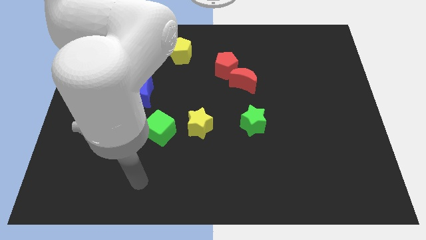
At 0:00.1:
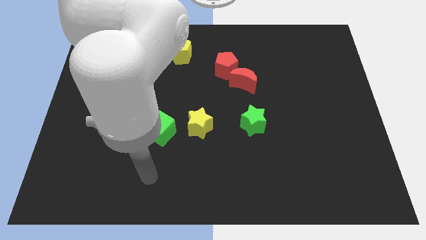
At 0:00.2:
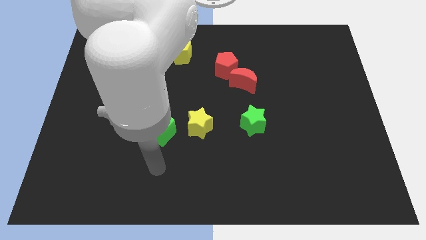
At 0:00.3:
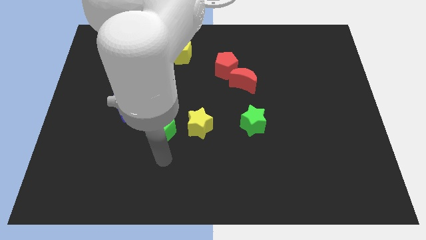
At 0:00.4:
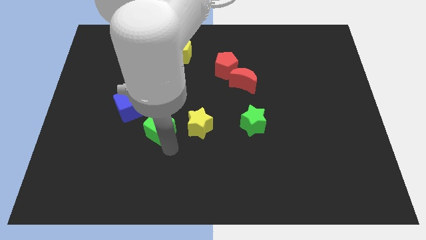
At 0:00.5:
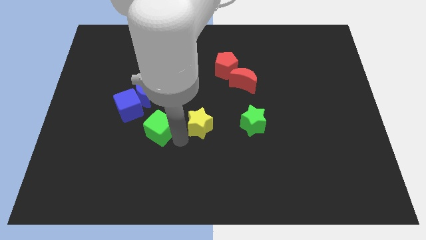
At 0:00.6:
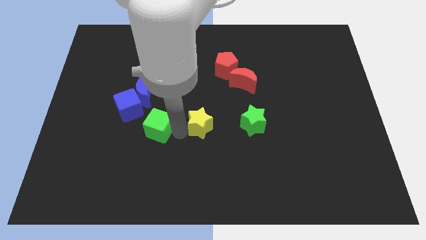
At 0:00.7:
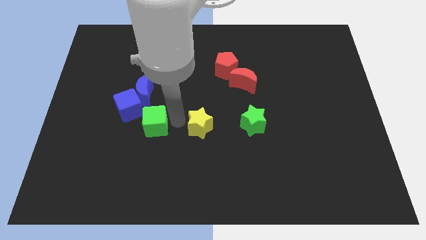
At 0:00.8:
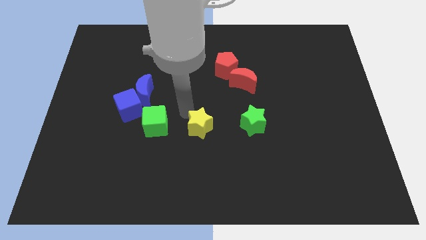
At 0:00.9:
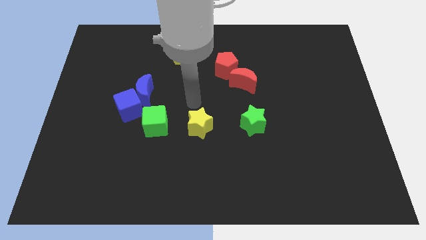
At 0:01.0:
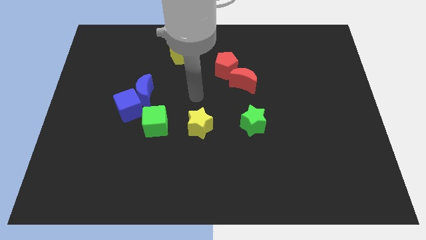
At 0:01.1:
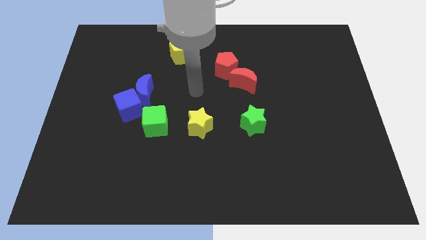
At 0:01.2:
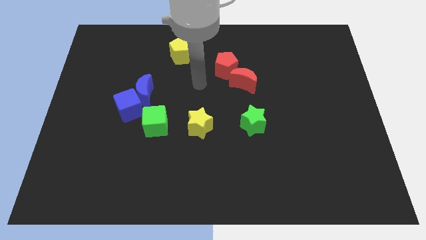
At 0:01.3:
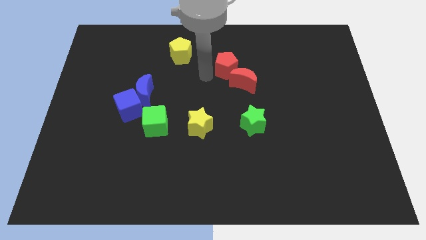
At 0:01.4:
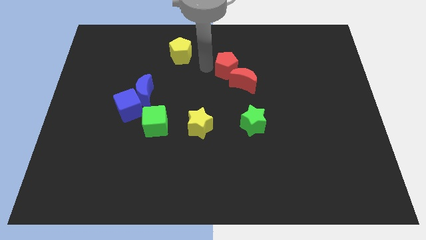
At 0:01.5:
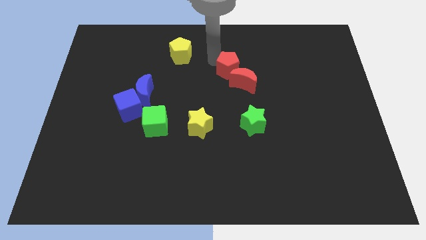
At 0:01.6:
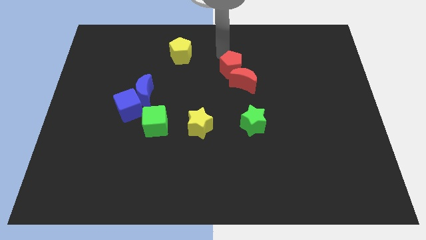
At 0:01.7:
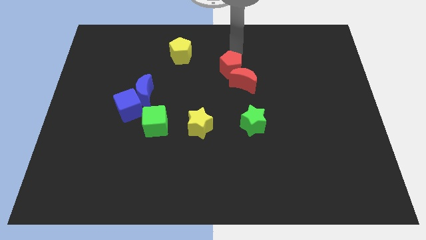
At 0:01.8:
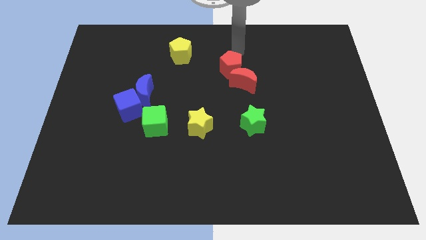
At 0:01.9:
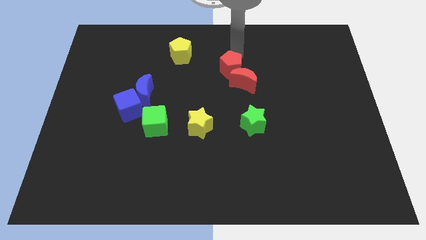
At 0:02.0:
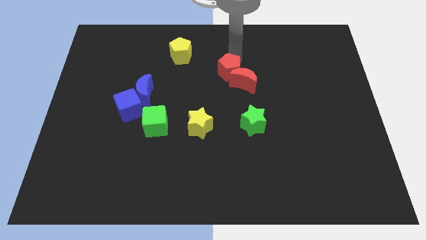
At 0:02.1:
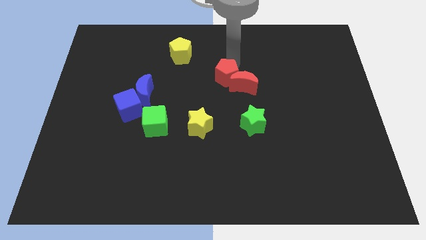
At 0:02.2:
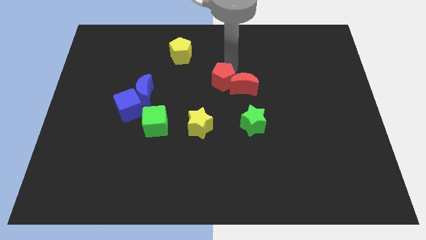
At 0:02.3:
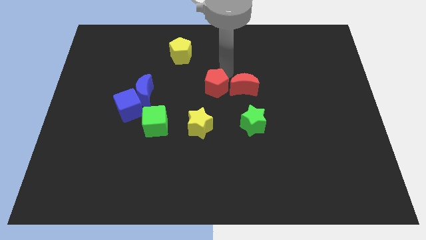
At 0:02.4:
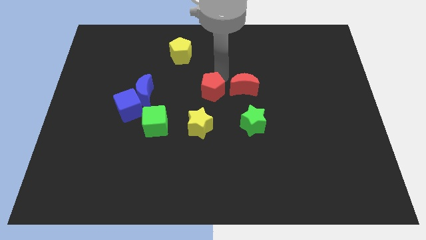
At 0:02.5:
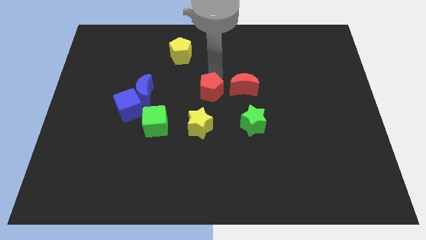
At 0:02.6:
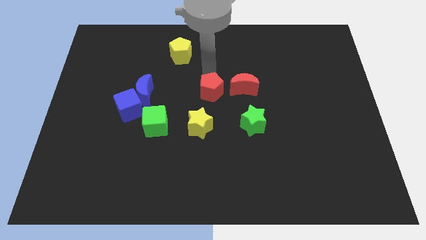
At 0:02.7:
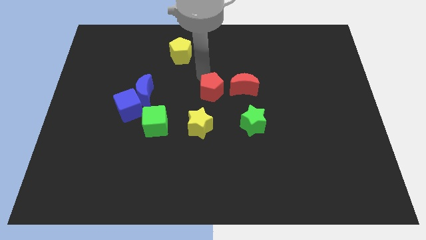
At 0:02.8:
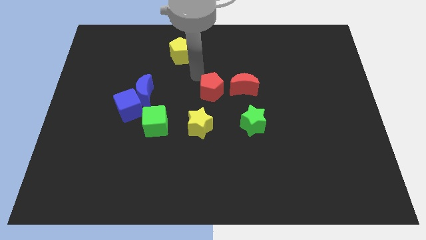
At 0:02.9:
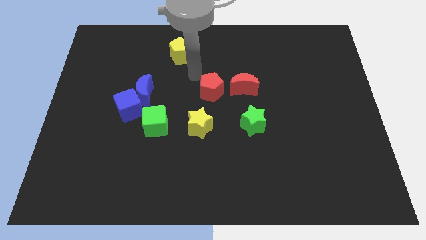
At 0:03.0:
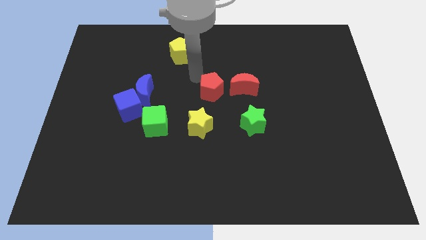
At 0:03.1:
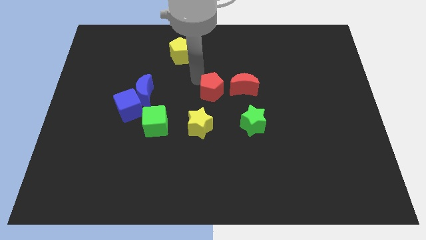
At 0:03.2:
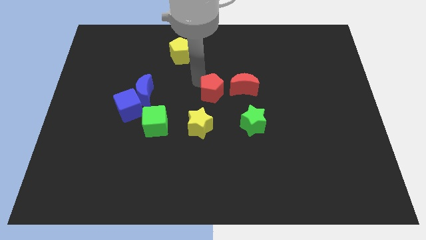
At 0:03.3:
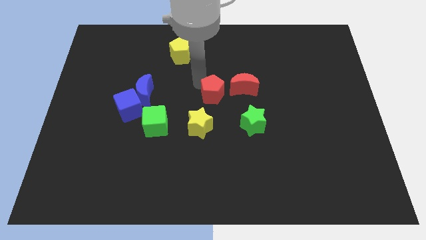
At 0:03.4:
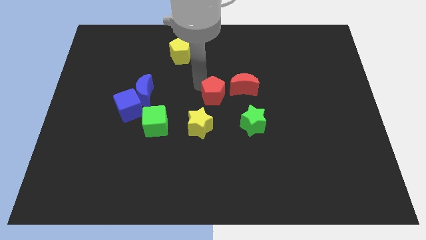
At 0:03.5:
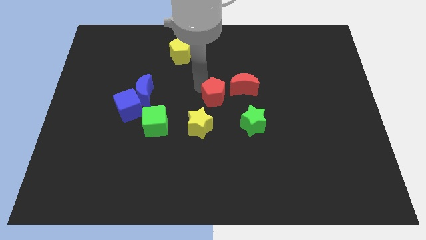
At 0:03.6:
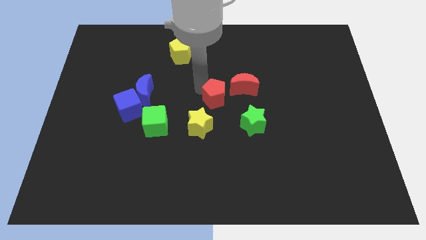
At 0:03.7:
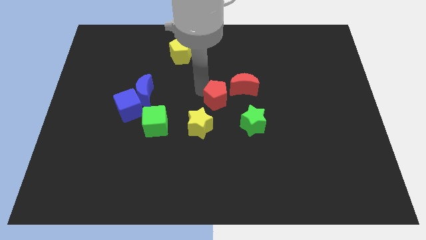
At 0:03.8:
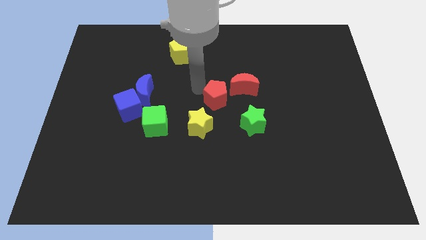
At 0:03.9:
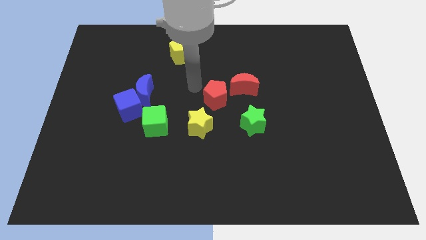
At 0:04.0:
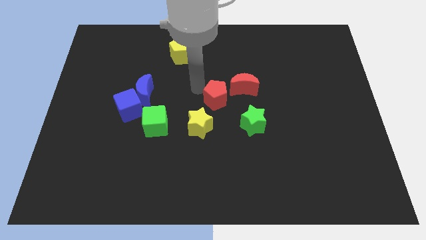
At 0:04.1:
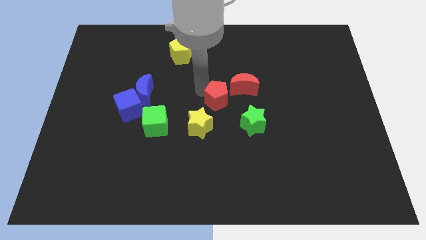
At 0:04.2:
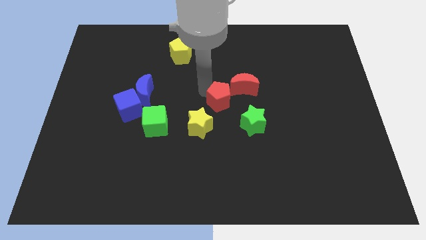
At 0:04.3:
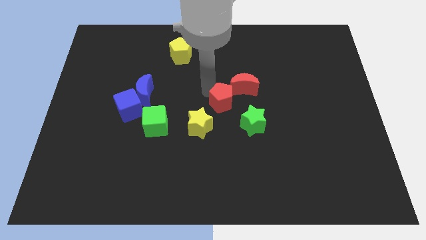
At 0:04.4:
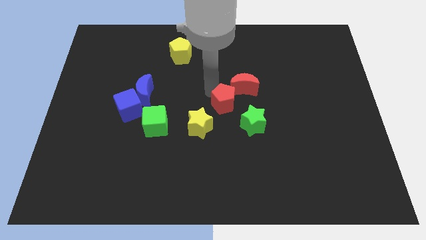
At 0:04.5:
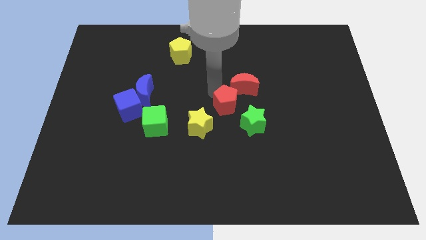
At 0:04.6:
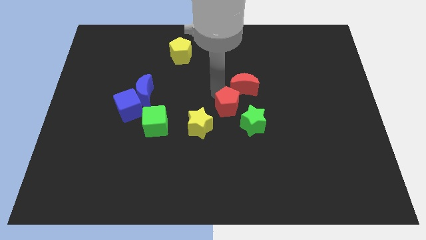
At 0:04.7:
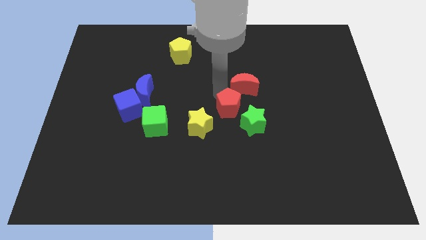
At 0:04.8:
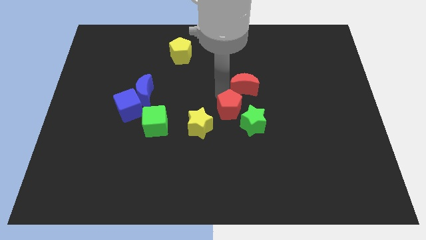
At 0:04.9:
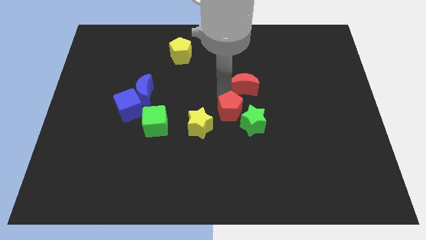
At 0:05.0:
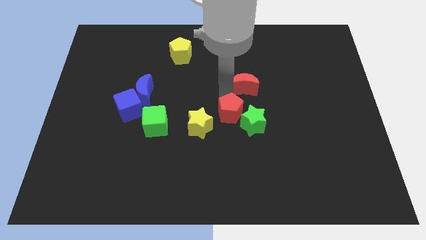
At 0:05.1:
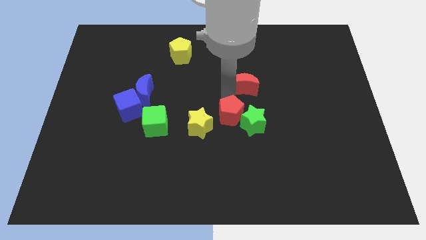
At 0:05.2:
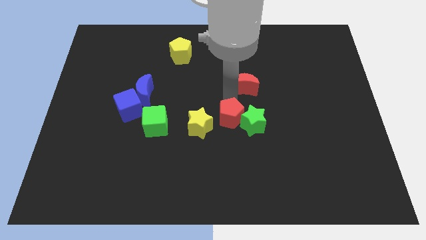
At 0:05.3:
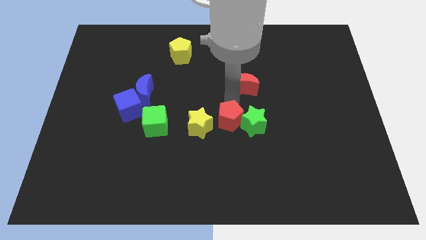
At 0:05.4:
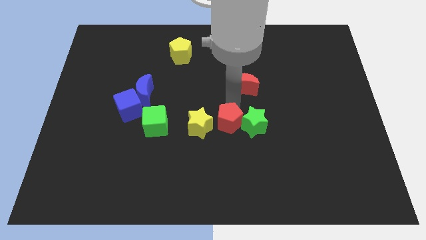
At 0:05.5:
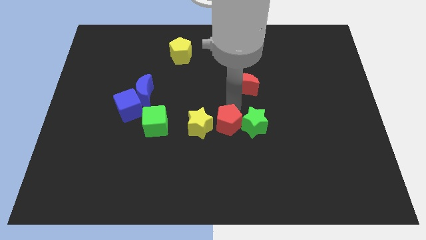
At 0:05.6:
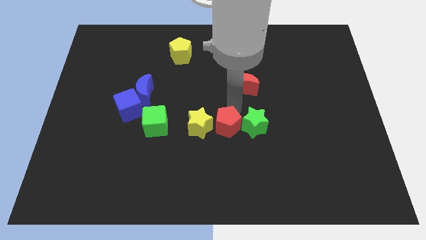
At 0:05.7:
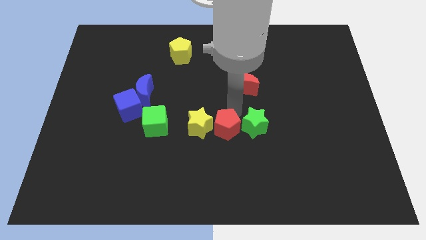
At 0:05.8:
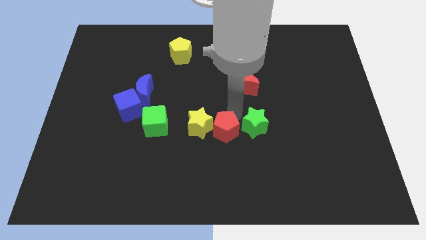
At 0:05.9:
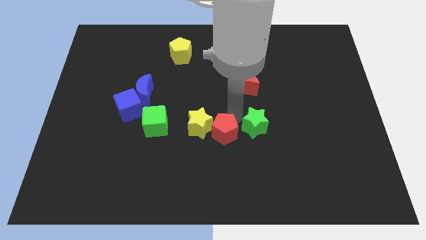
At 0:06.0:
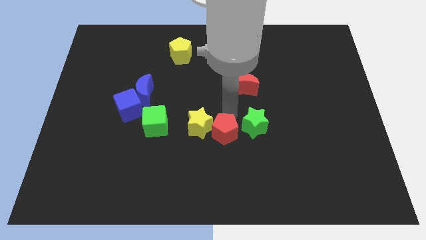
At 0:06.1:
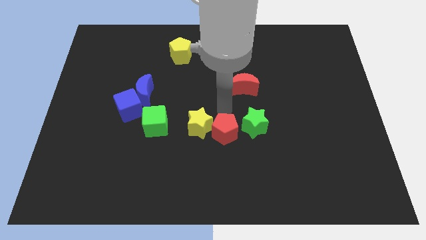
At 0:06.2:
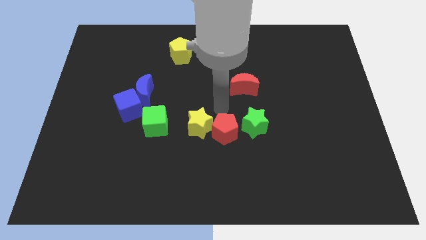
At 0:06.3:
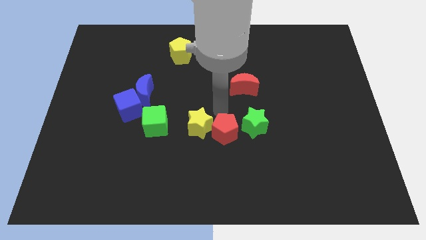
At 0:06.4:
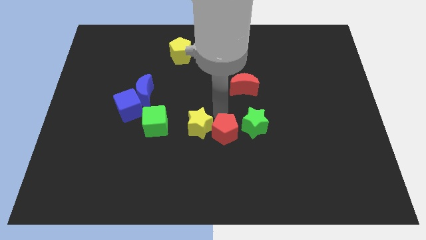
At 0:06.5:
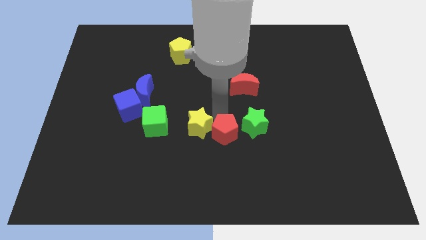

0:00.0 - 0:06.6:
move the red pentagon down

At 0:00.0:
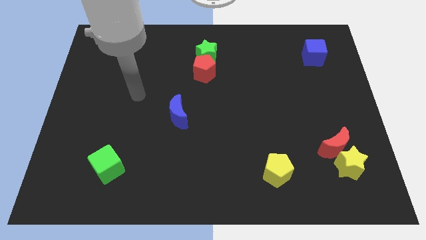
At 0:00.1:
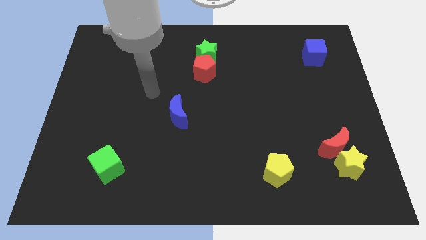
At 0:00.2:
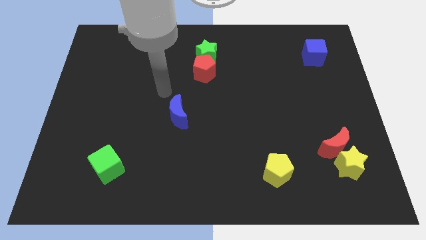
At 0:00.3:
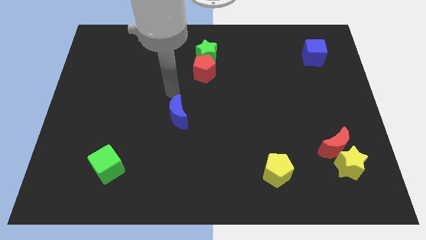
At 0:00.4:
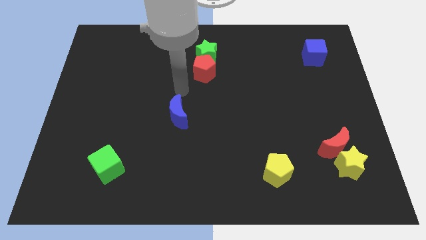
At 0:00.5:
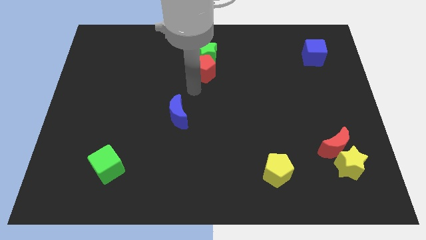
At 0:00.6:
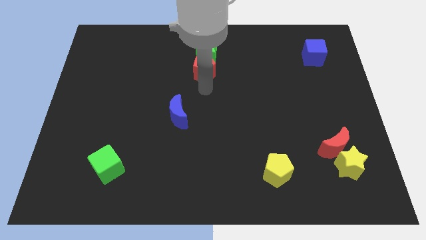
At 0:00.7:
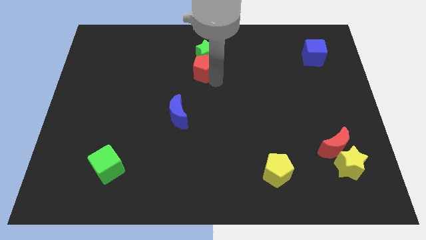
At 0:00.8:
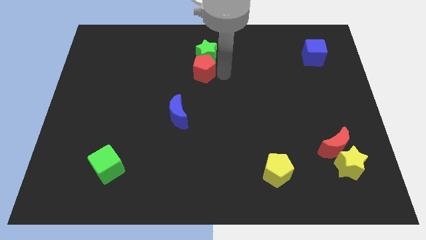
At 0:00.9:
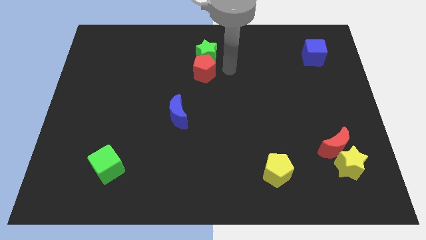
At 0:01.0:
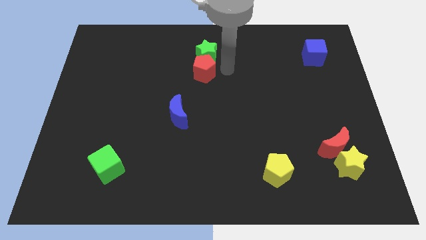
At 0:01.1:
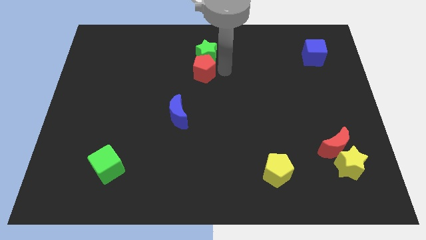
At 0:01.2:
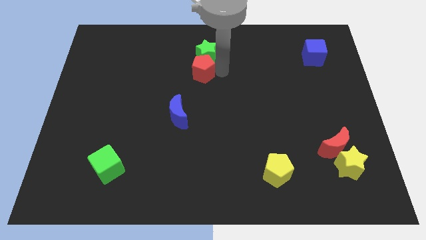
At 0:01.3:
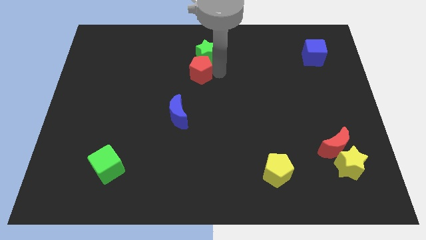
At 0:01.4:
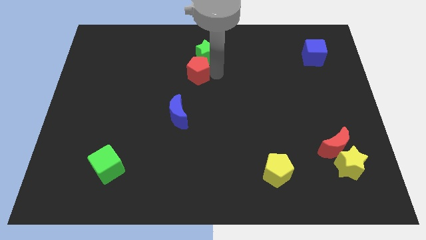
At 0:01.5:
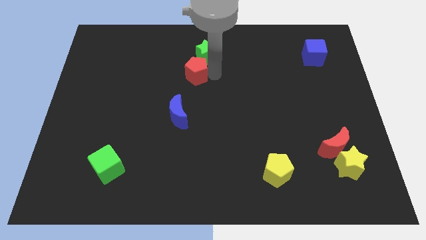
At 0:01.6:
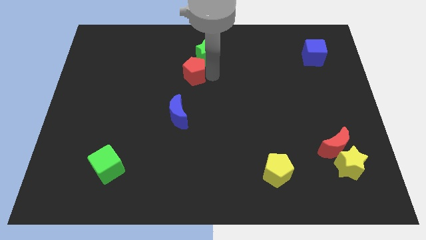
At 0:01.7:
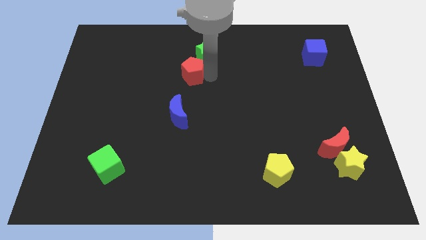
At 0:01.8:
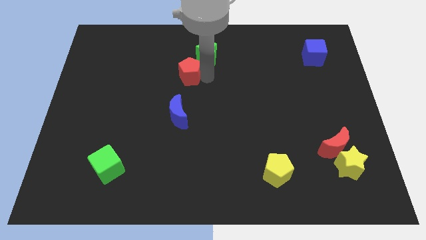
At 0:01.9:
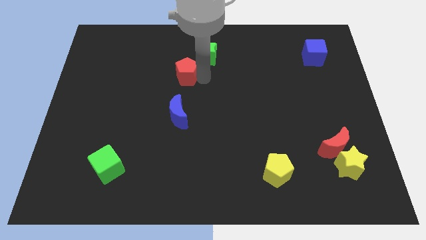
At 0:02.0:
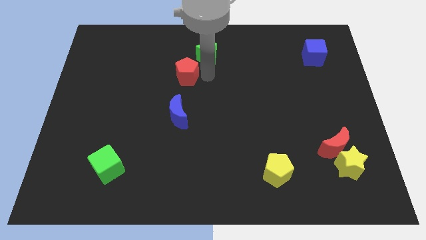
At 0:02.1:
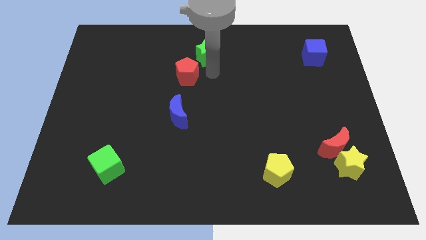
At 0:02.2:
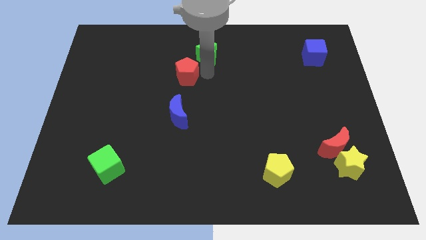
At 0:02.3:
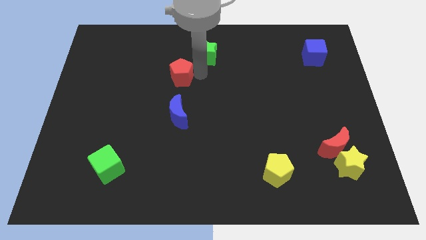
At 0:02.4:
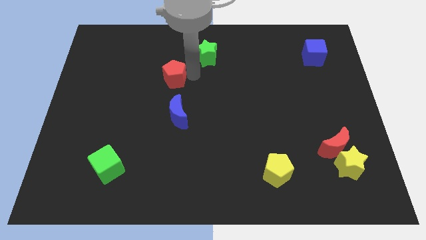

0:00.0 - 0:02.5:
slide the red pentagon a little left
